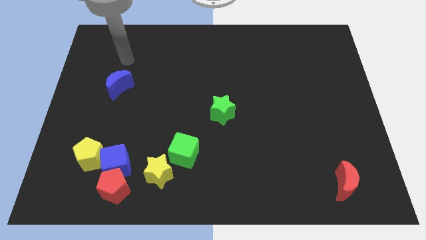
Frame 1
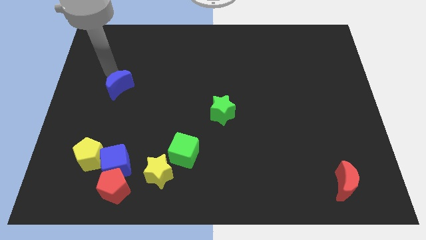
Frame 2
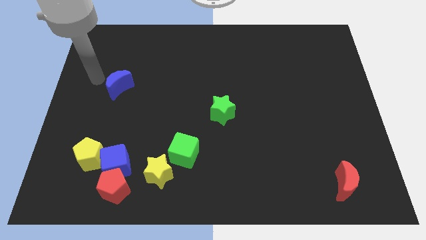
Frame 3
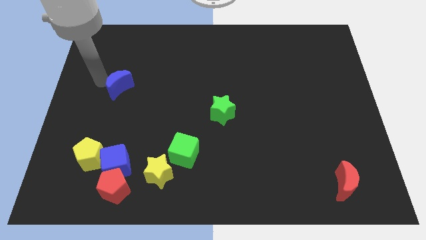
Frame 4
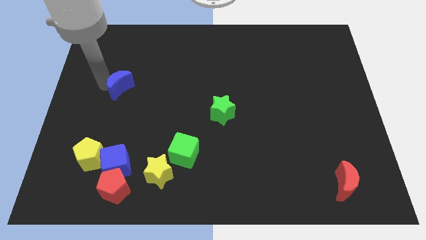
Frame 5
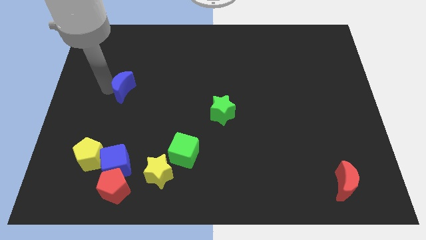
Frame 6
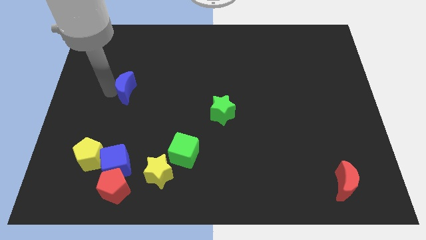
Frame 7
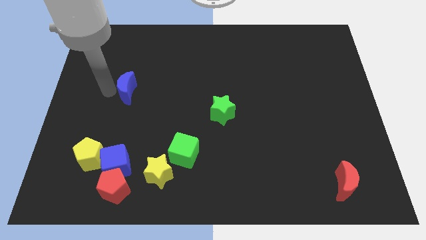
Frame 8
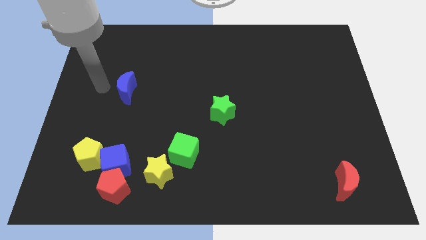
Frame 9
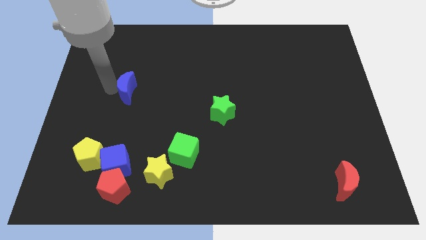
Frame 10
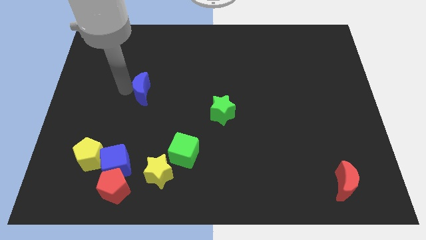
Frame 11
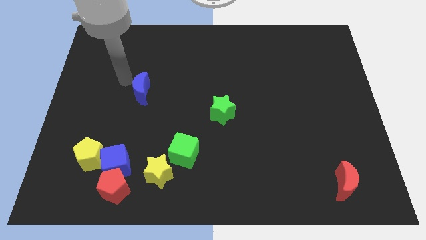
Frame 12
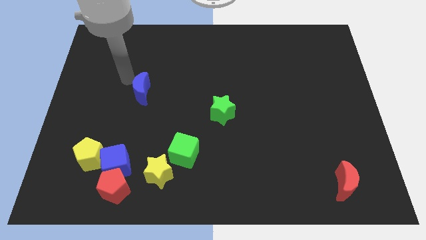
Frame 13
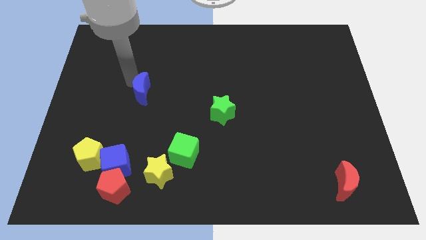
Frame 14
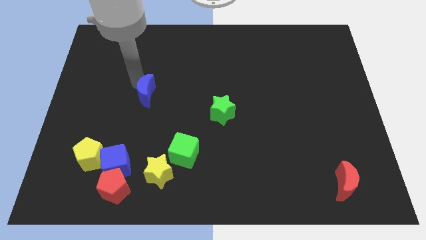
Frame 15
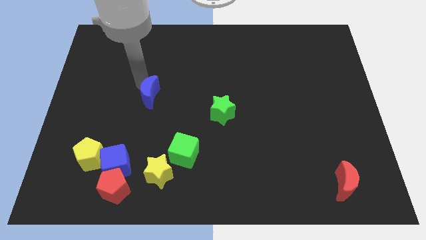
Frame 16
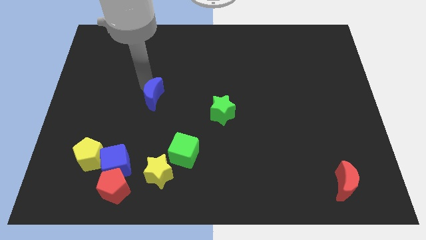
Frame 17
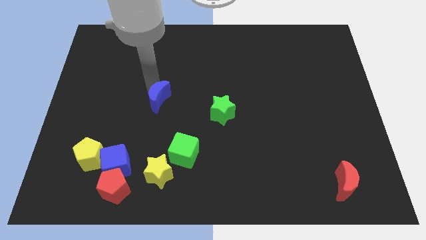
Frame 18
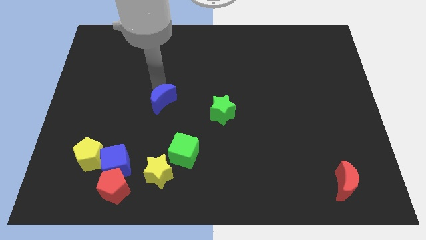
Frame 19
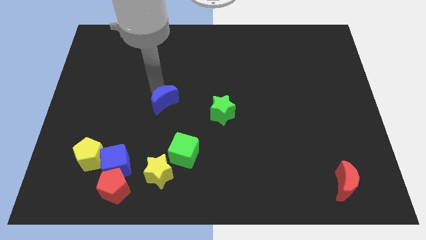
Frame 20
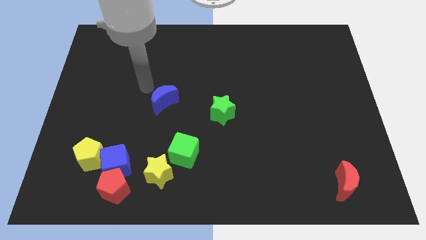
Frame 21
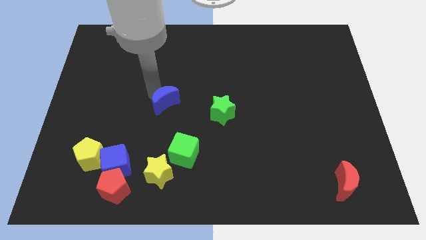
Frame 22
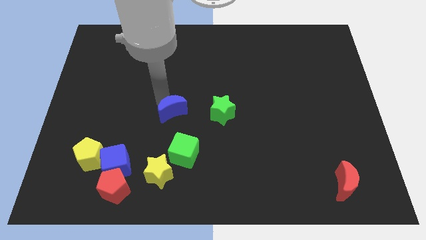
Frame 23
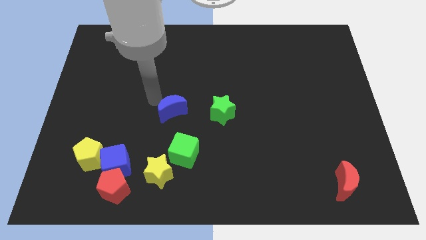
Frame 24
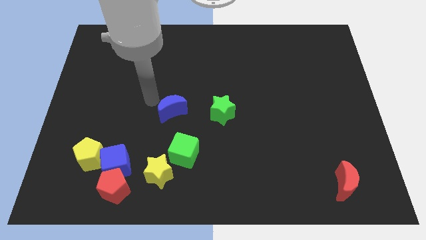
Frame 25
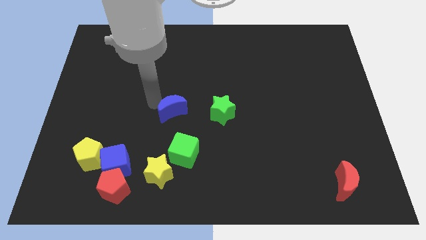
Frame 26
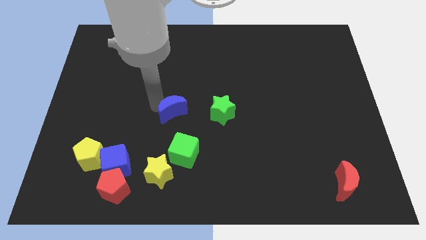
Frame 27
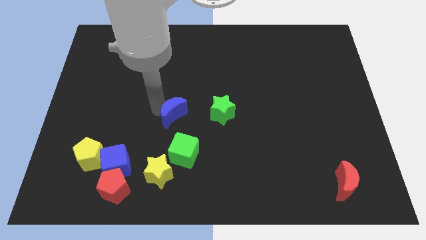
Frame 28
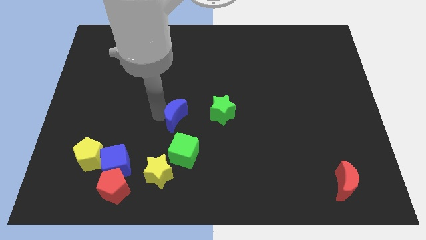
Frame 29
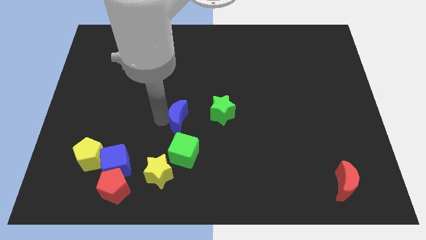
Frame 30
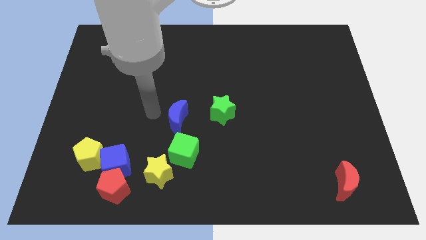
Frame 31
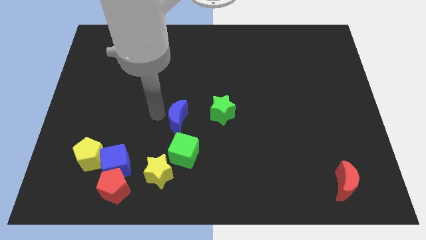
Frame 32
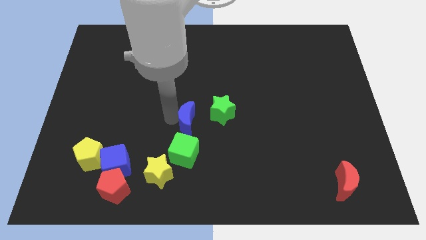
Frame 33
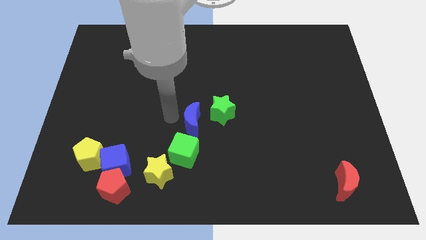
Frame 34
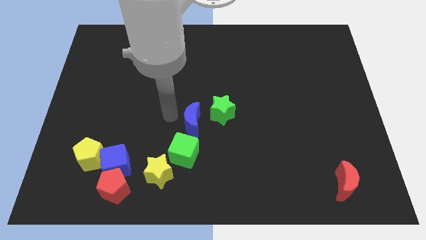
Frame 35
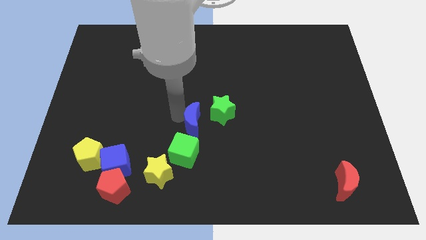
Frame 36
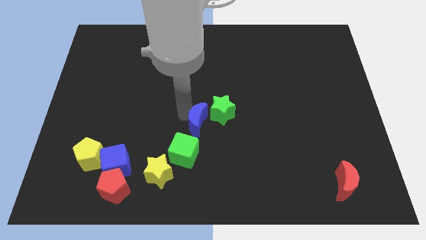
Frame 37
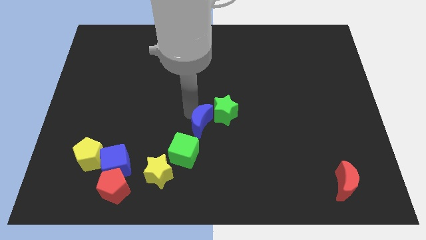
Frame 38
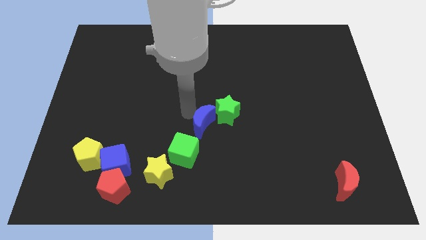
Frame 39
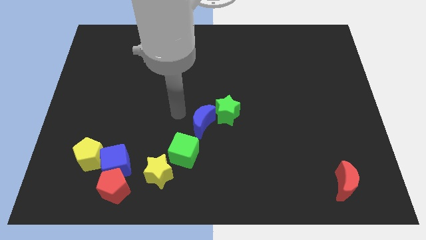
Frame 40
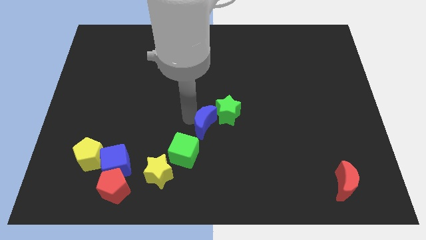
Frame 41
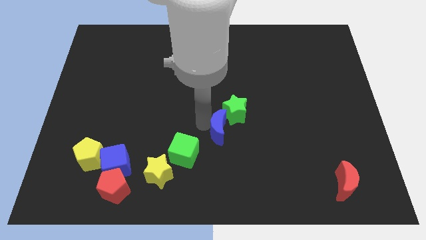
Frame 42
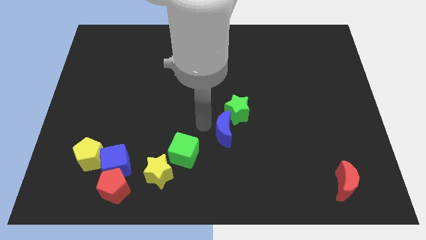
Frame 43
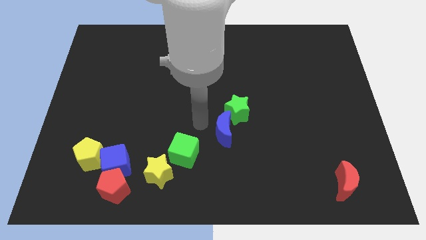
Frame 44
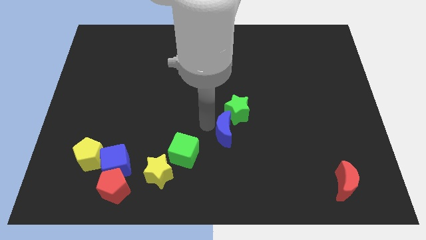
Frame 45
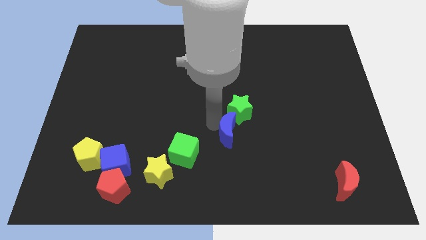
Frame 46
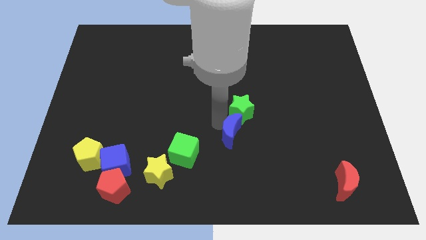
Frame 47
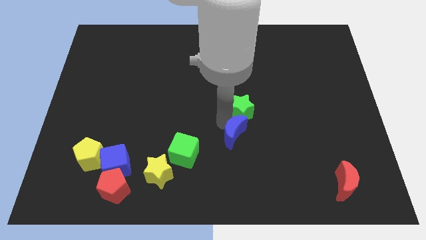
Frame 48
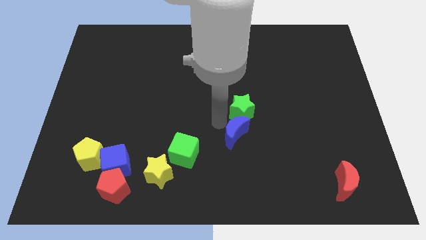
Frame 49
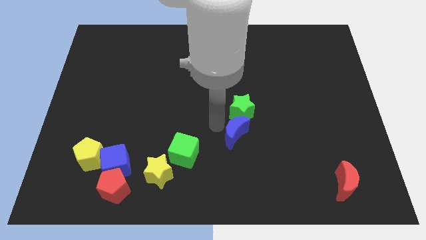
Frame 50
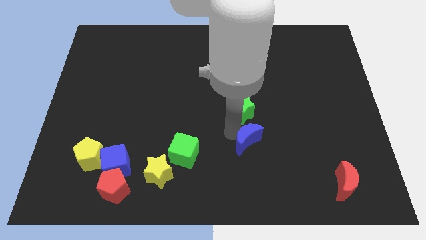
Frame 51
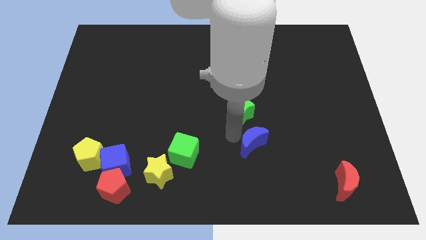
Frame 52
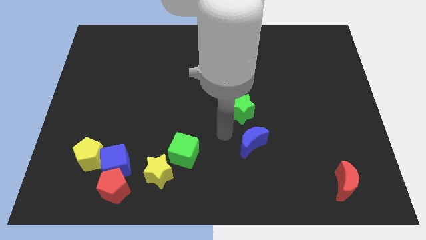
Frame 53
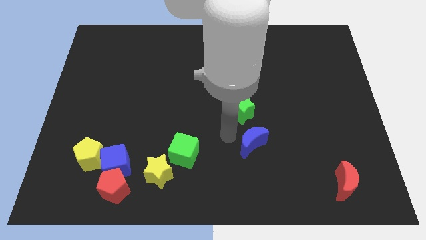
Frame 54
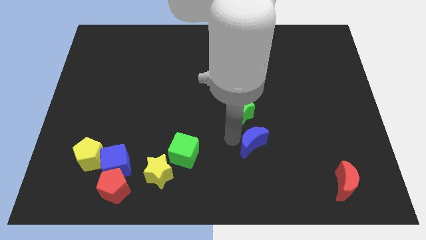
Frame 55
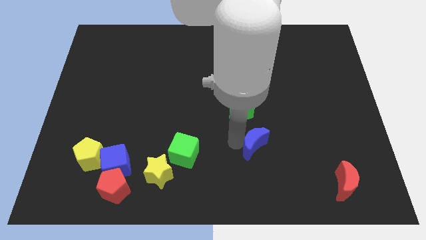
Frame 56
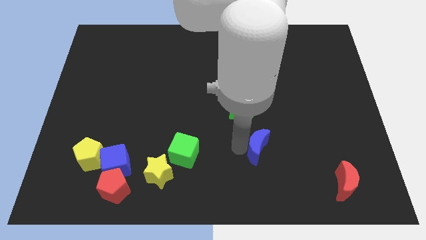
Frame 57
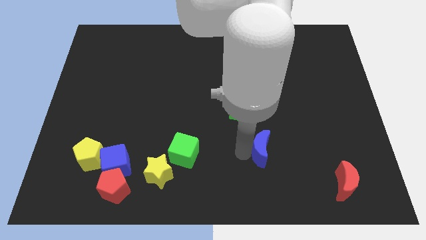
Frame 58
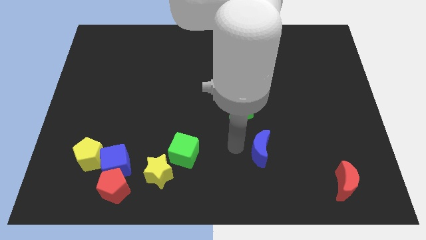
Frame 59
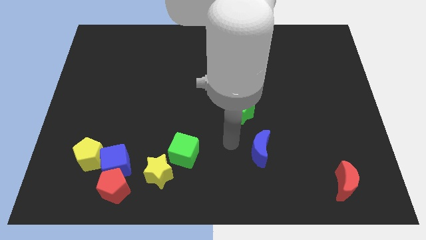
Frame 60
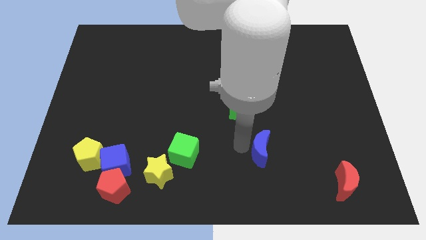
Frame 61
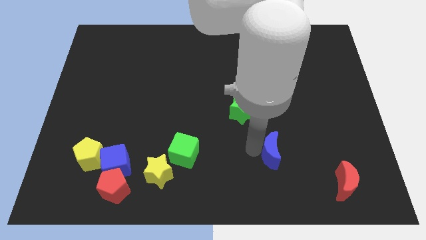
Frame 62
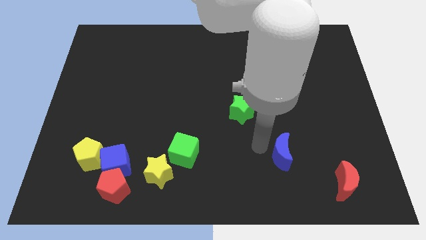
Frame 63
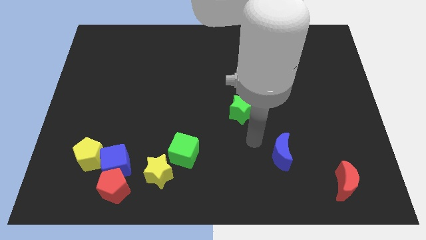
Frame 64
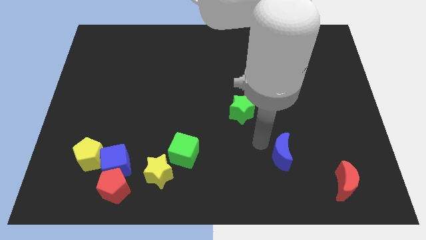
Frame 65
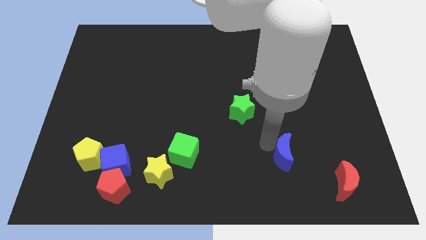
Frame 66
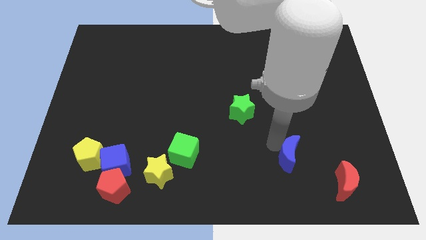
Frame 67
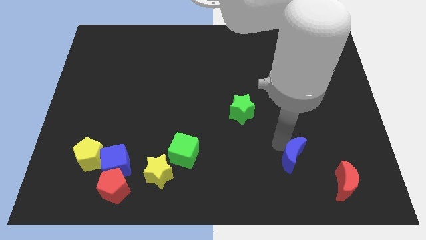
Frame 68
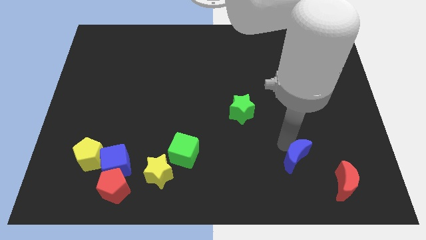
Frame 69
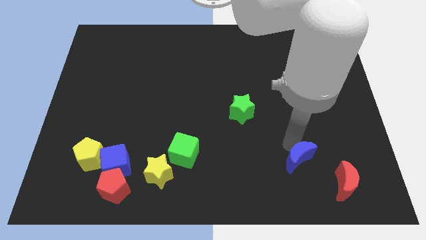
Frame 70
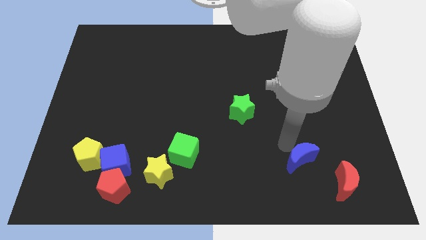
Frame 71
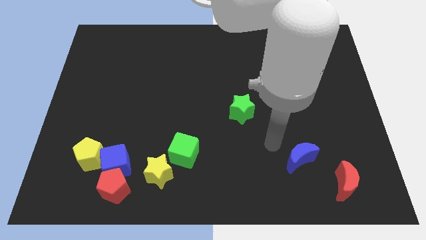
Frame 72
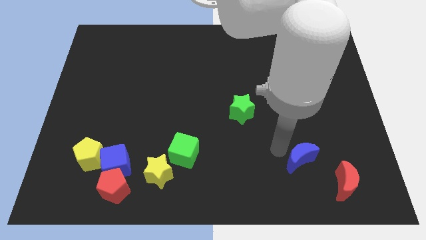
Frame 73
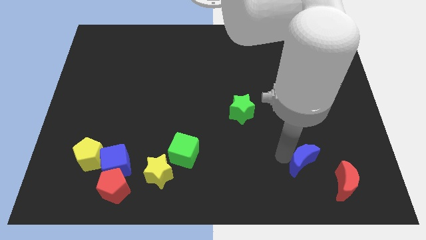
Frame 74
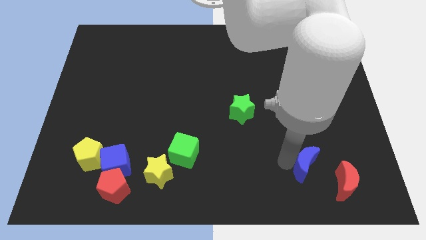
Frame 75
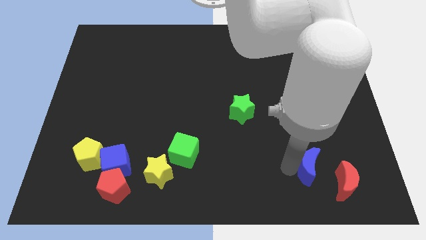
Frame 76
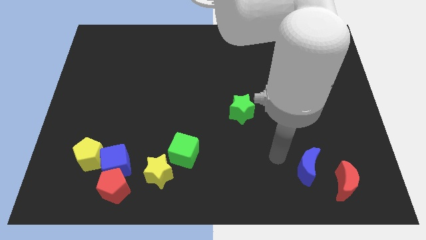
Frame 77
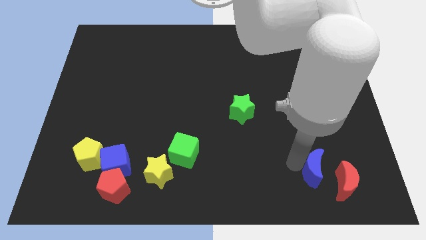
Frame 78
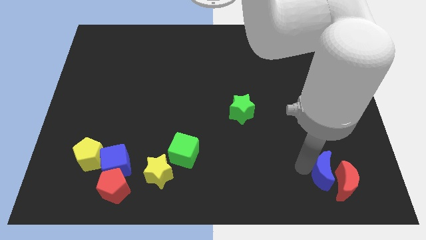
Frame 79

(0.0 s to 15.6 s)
move the blue moon towards the red moon
